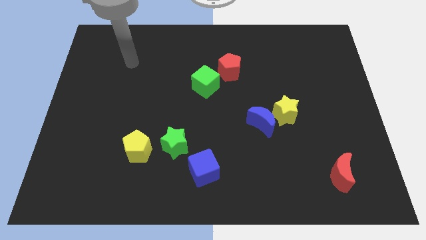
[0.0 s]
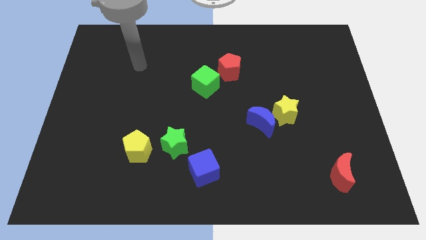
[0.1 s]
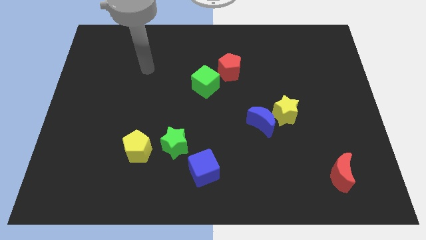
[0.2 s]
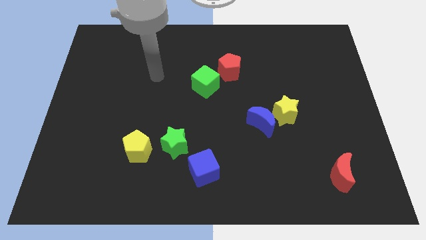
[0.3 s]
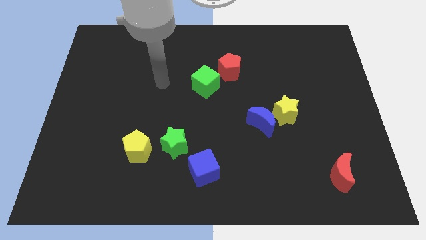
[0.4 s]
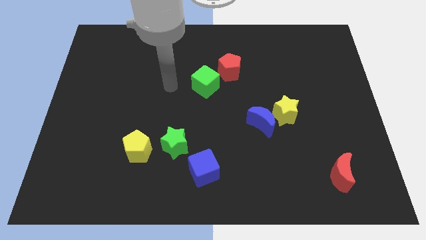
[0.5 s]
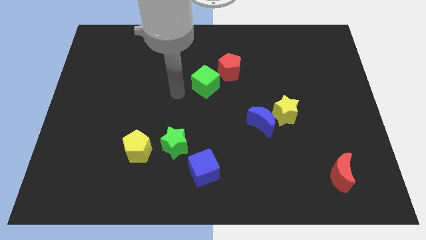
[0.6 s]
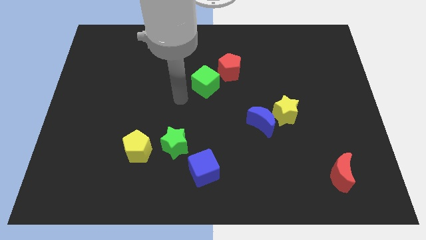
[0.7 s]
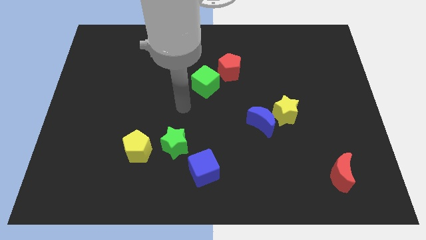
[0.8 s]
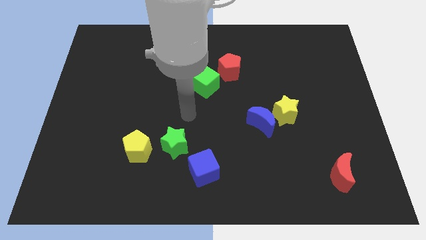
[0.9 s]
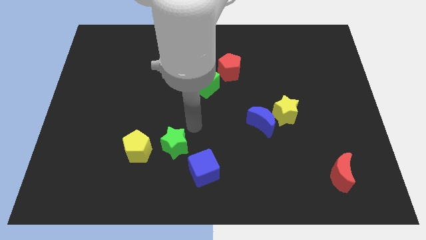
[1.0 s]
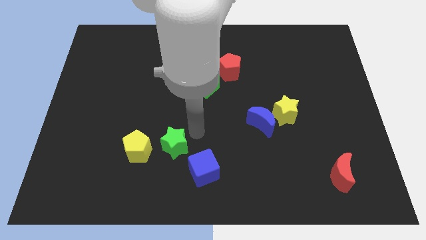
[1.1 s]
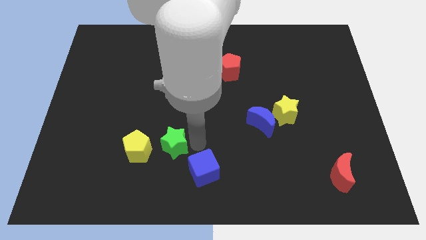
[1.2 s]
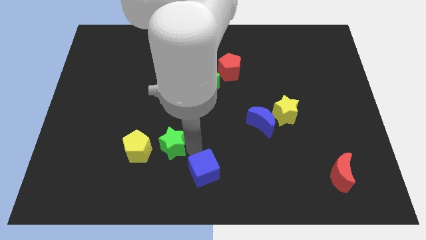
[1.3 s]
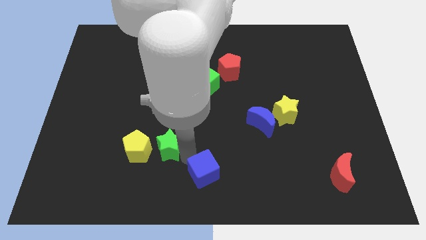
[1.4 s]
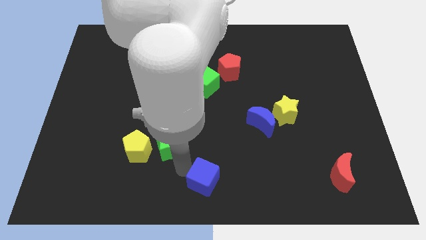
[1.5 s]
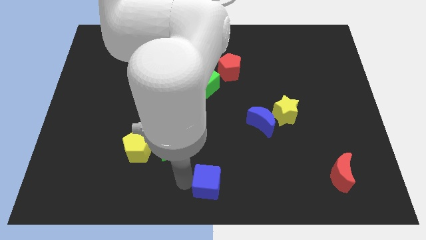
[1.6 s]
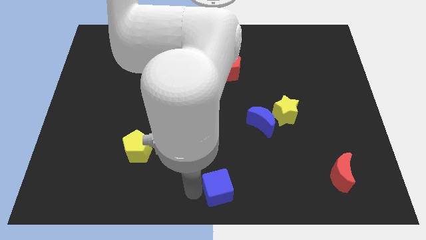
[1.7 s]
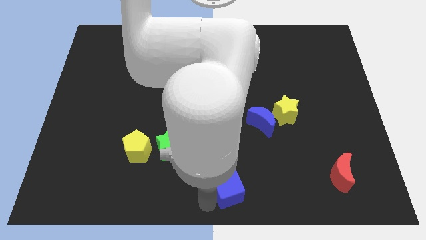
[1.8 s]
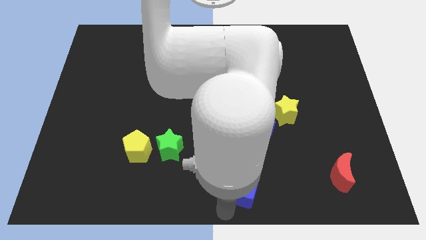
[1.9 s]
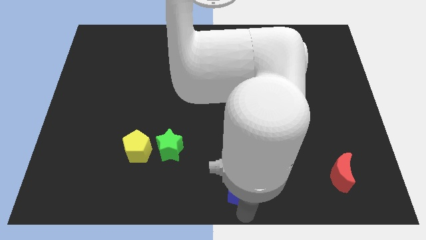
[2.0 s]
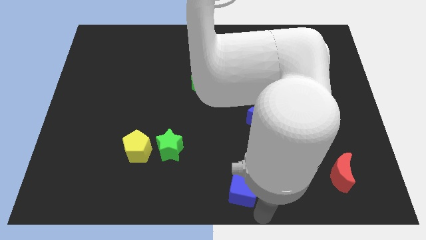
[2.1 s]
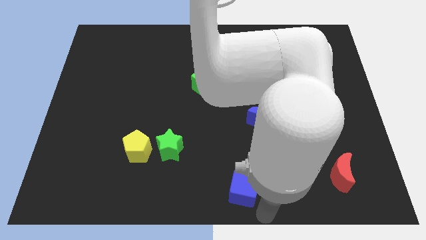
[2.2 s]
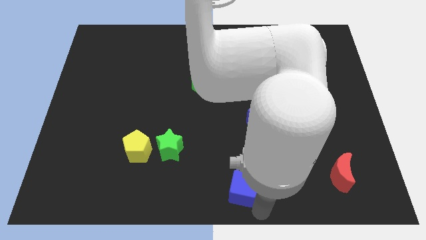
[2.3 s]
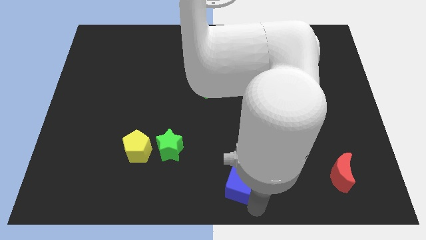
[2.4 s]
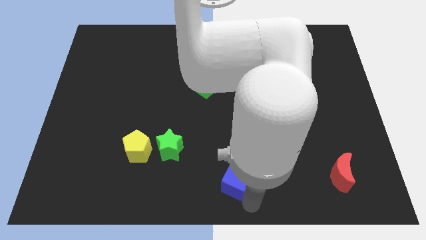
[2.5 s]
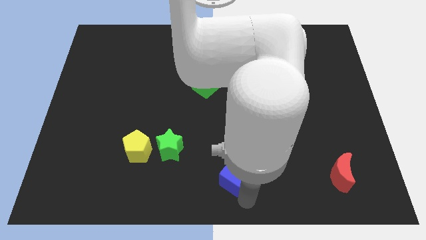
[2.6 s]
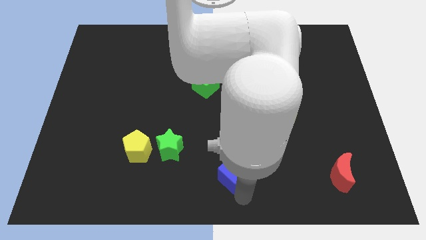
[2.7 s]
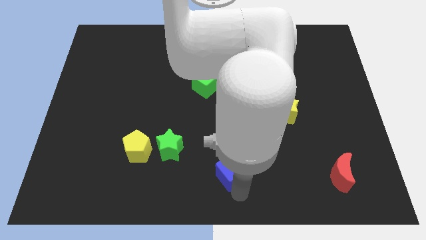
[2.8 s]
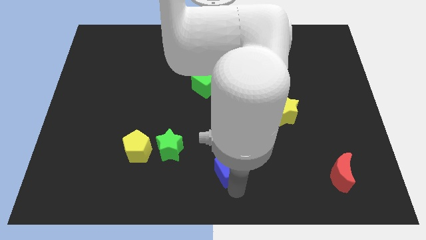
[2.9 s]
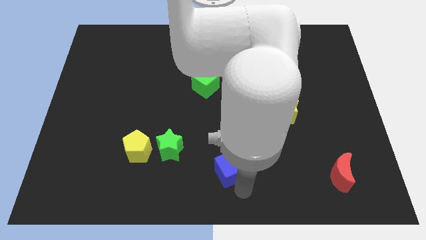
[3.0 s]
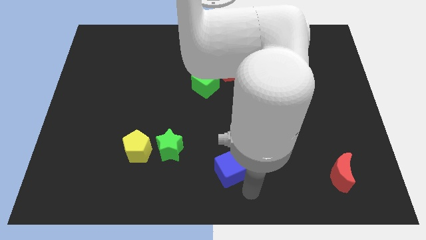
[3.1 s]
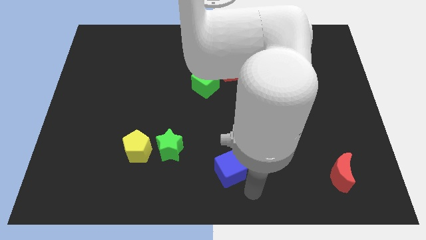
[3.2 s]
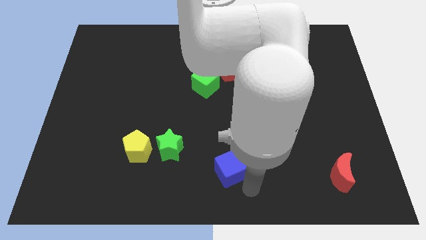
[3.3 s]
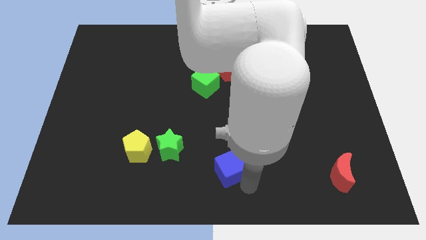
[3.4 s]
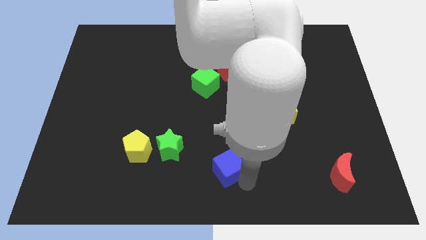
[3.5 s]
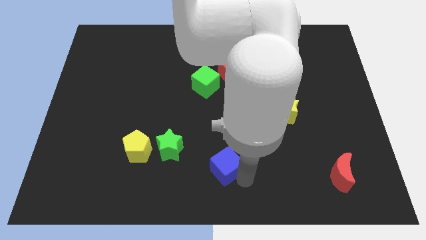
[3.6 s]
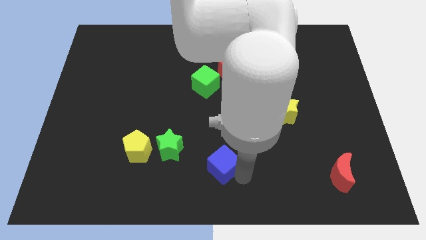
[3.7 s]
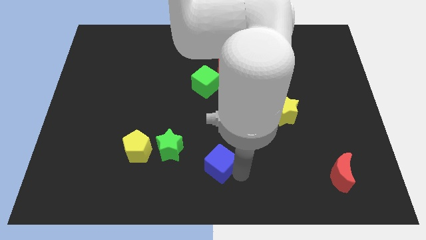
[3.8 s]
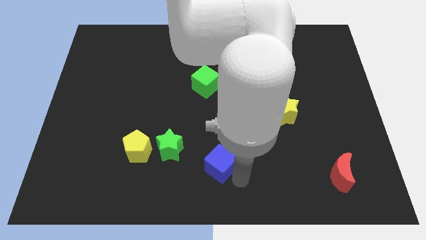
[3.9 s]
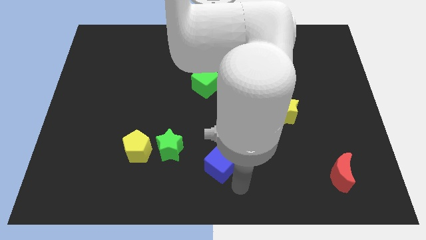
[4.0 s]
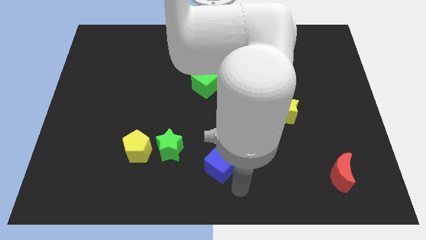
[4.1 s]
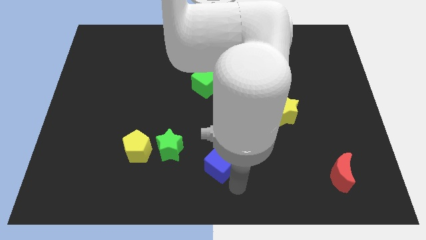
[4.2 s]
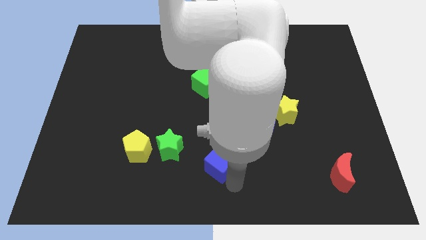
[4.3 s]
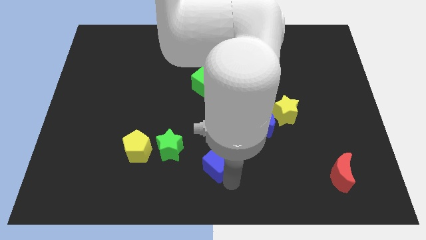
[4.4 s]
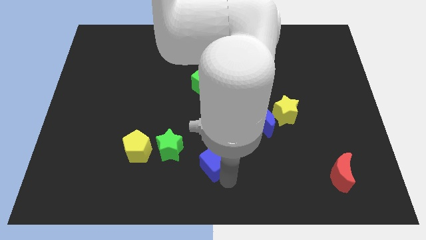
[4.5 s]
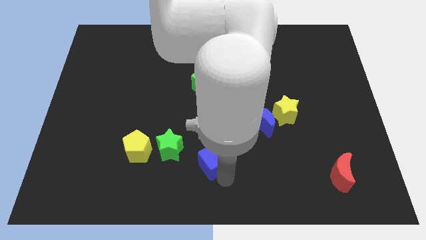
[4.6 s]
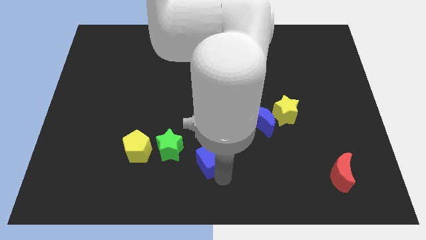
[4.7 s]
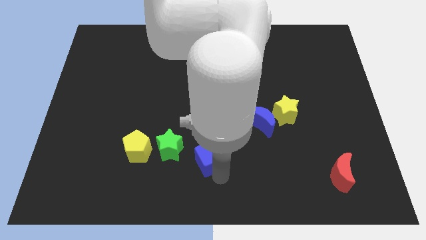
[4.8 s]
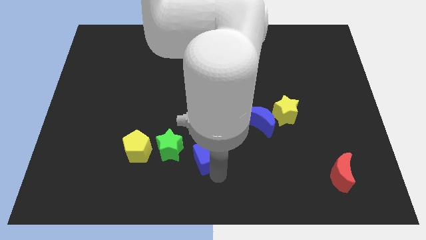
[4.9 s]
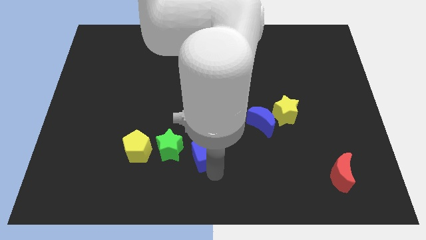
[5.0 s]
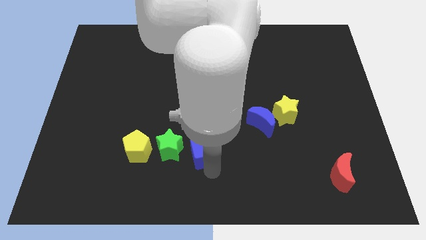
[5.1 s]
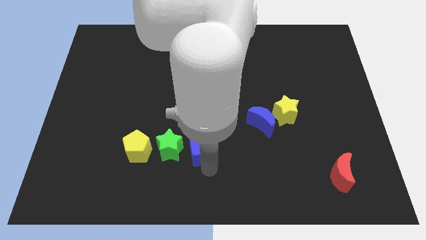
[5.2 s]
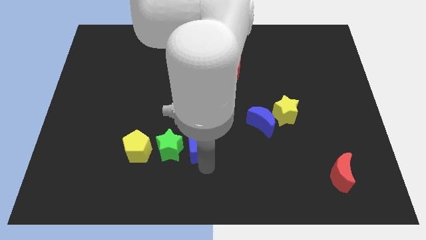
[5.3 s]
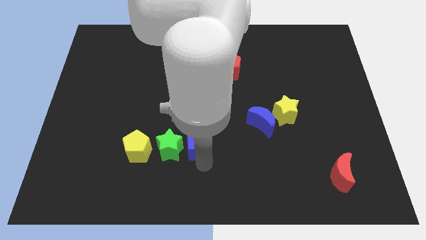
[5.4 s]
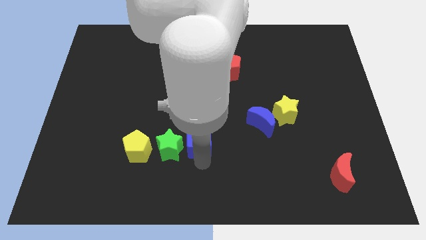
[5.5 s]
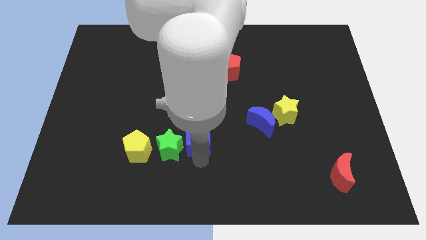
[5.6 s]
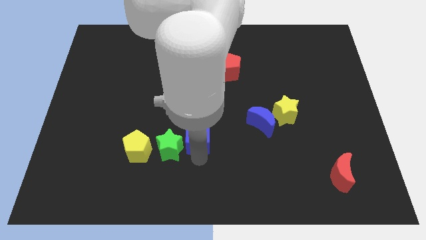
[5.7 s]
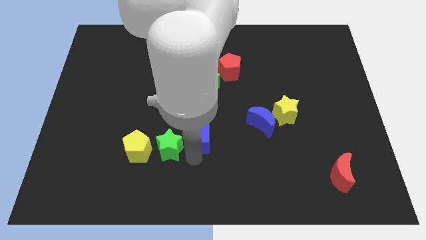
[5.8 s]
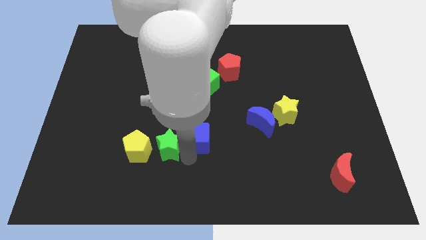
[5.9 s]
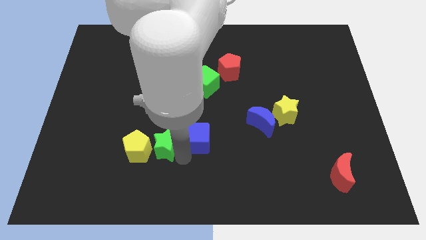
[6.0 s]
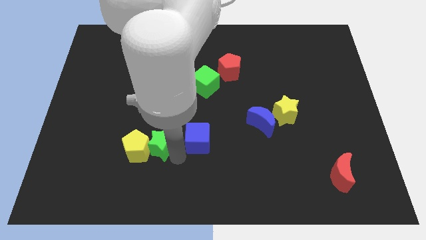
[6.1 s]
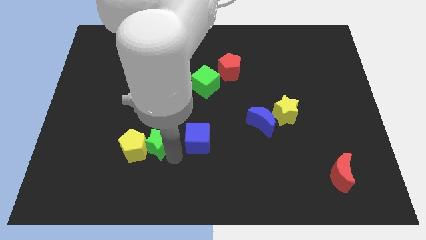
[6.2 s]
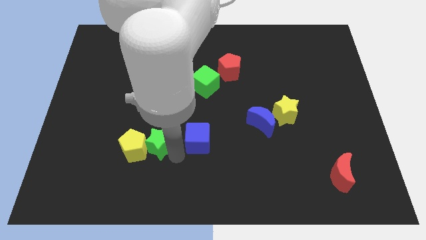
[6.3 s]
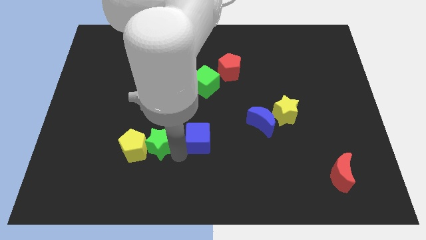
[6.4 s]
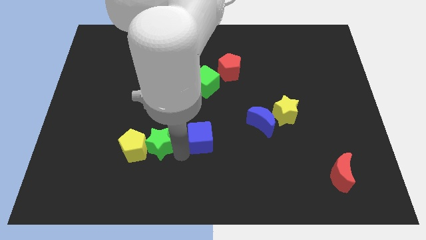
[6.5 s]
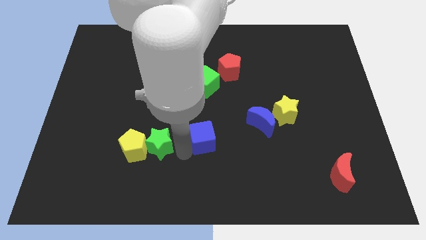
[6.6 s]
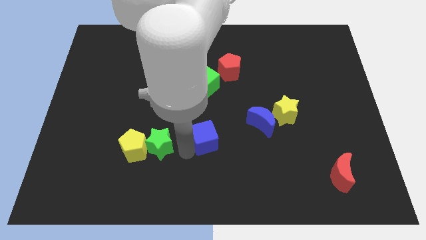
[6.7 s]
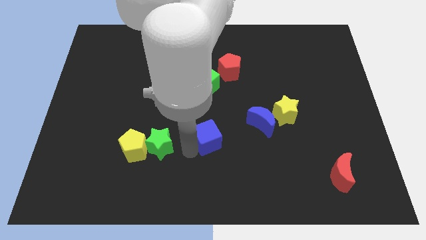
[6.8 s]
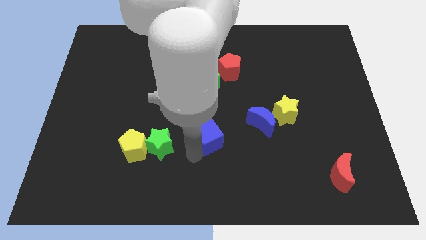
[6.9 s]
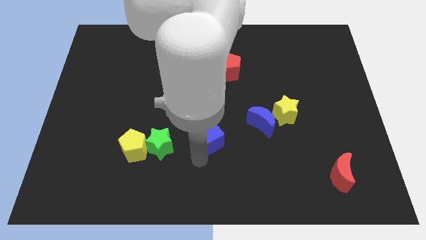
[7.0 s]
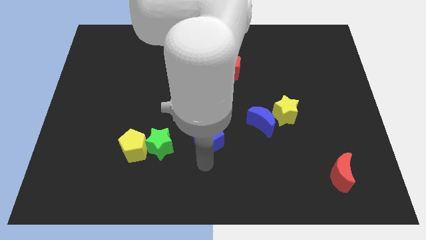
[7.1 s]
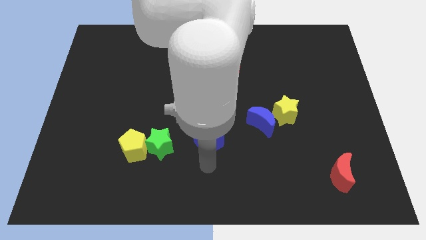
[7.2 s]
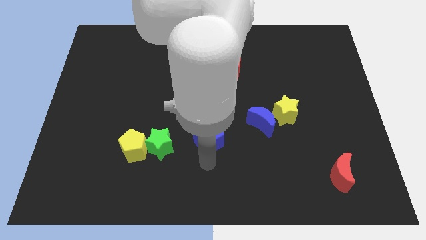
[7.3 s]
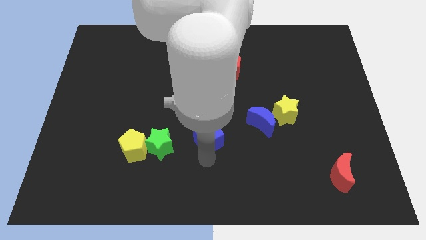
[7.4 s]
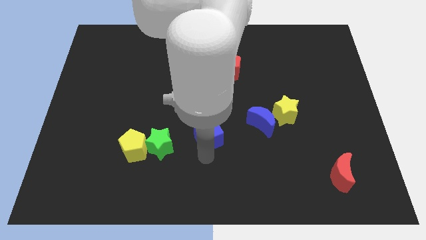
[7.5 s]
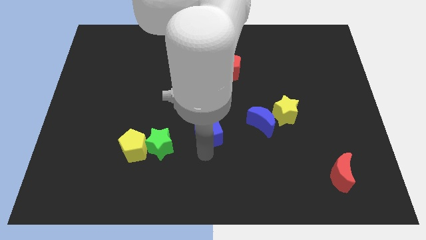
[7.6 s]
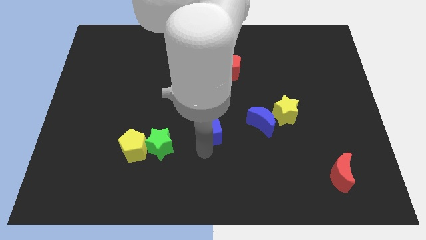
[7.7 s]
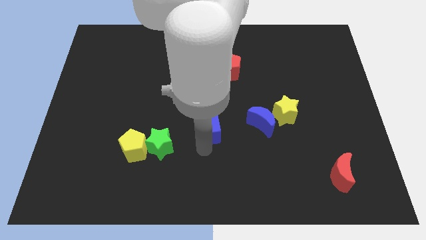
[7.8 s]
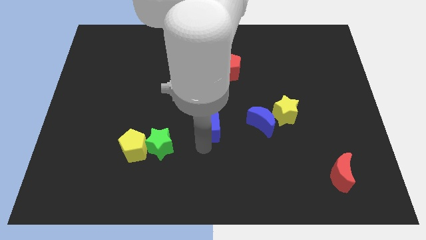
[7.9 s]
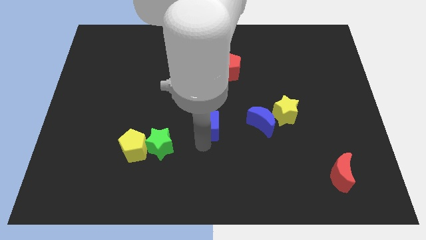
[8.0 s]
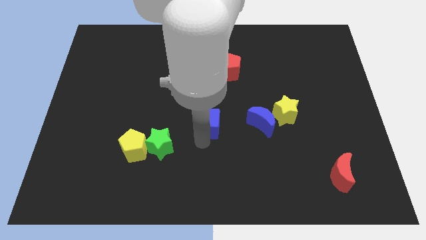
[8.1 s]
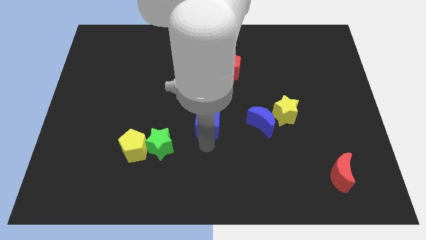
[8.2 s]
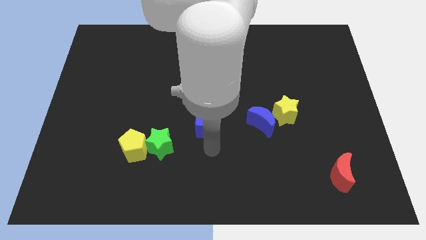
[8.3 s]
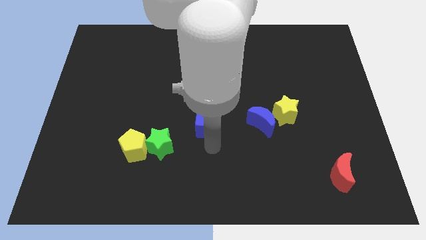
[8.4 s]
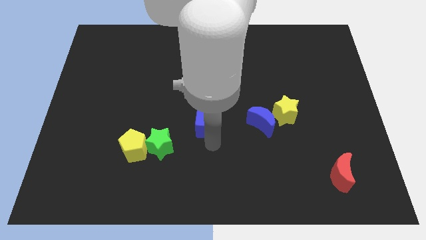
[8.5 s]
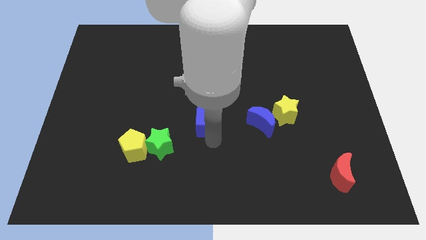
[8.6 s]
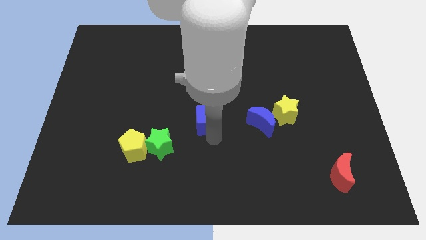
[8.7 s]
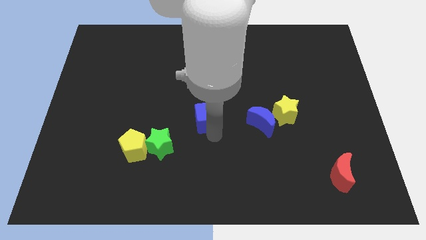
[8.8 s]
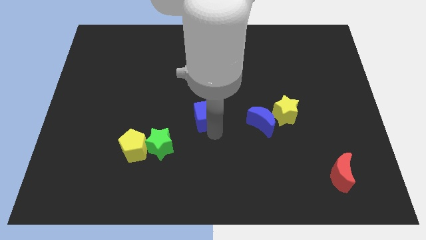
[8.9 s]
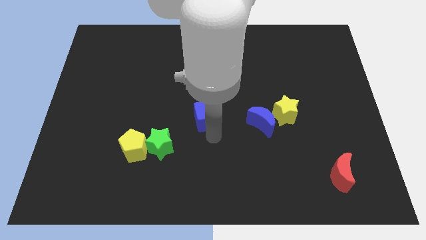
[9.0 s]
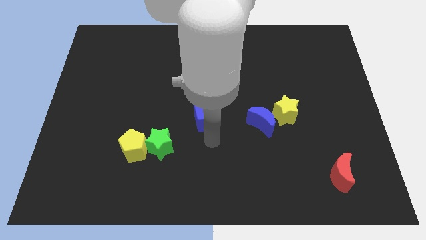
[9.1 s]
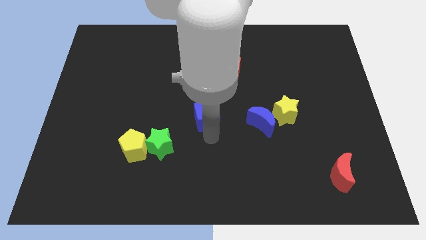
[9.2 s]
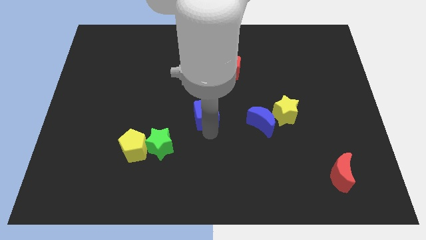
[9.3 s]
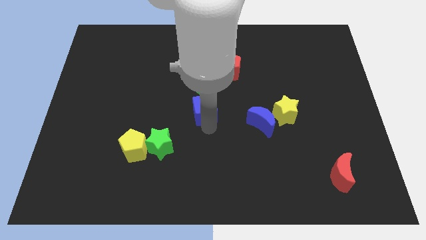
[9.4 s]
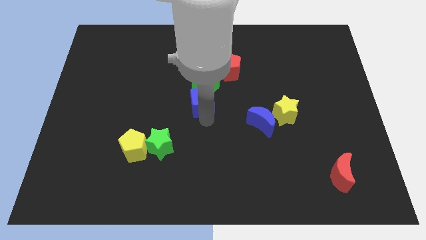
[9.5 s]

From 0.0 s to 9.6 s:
push the blue cube towards the green cube
